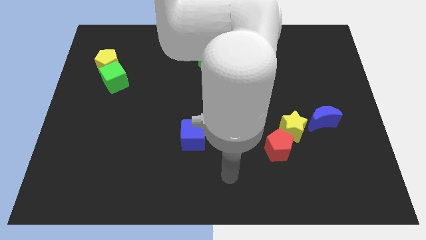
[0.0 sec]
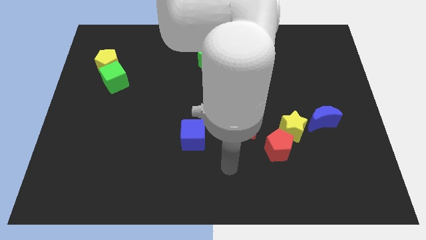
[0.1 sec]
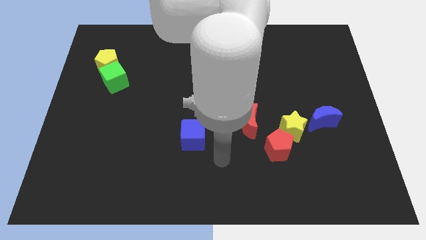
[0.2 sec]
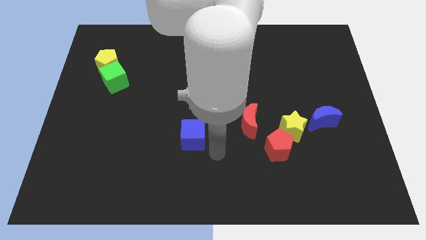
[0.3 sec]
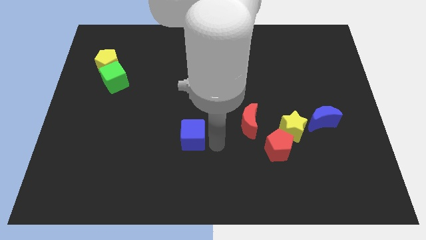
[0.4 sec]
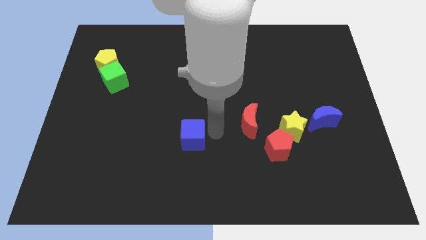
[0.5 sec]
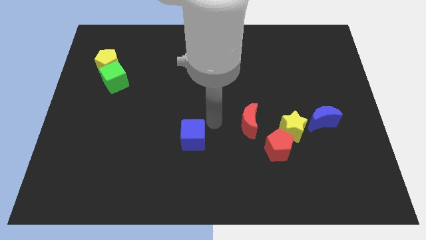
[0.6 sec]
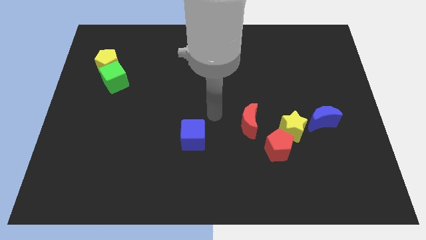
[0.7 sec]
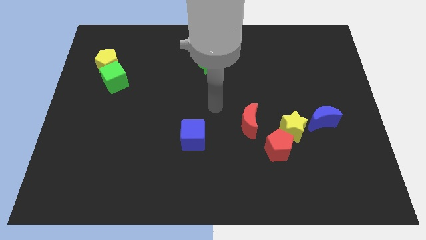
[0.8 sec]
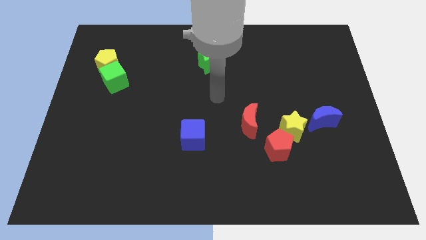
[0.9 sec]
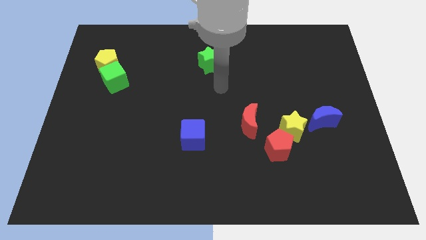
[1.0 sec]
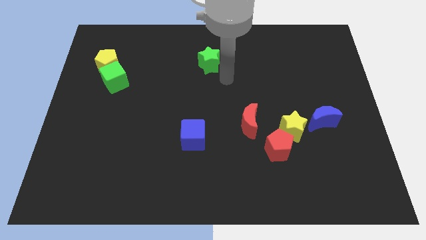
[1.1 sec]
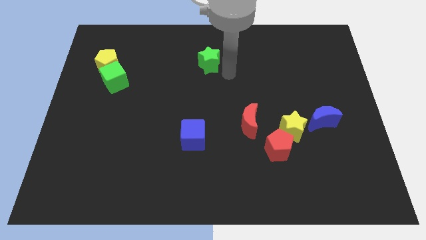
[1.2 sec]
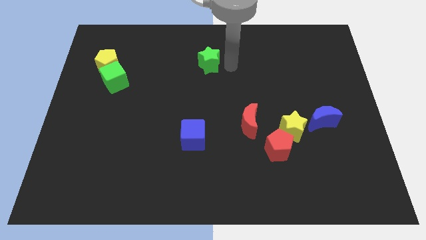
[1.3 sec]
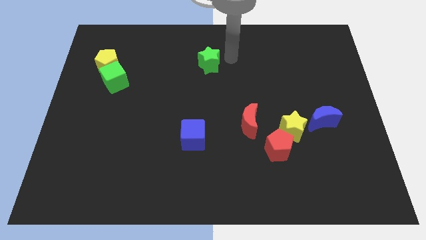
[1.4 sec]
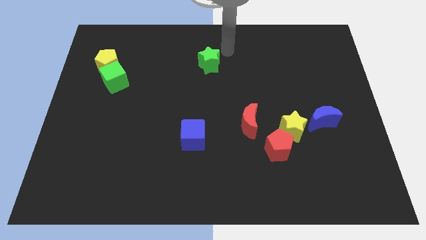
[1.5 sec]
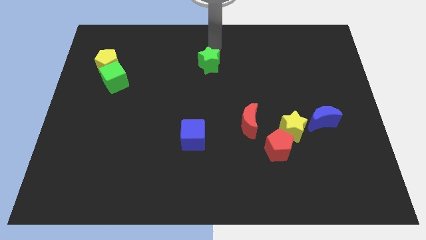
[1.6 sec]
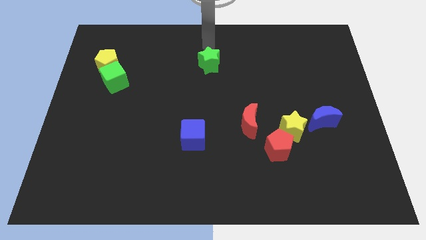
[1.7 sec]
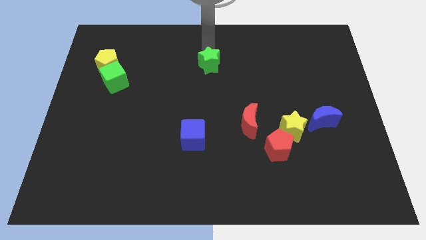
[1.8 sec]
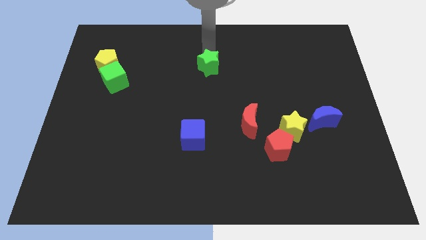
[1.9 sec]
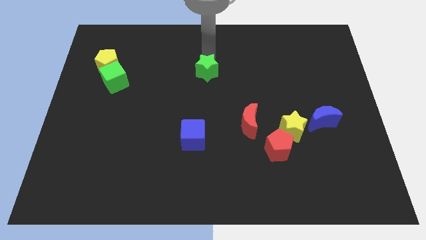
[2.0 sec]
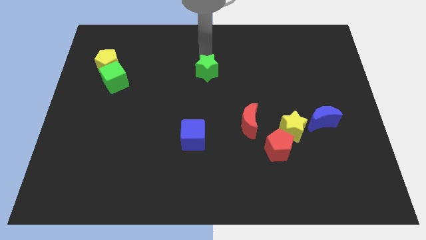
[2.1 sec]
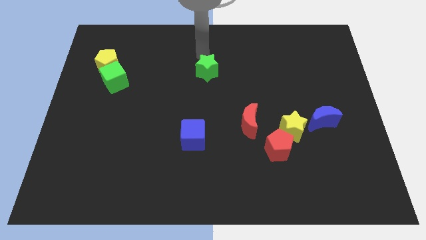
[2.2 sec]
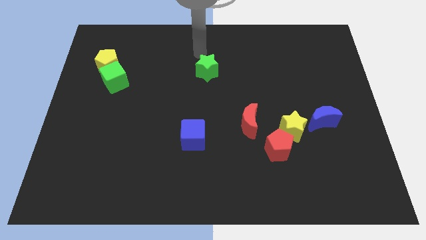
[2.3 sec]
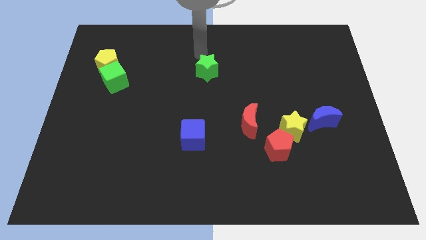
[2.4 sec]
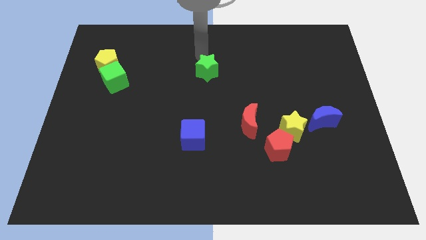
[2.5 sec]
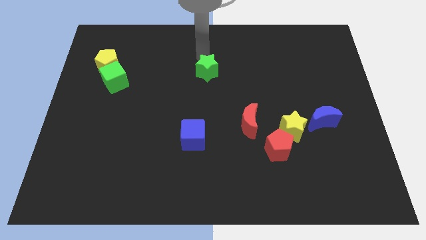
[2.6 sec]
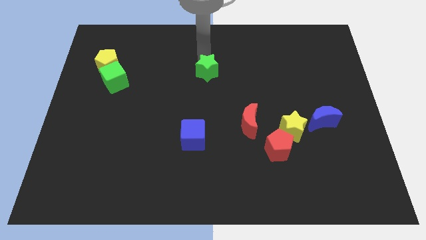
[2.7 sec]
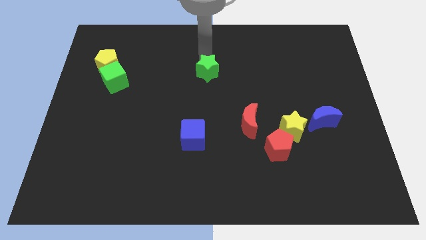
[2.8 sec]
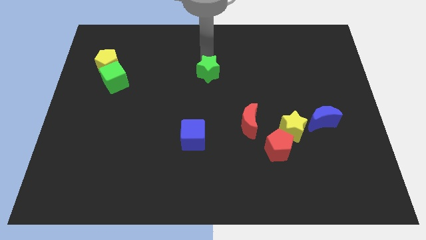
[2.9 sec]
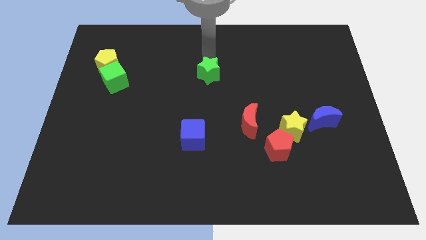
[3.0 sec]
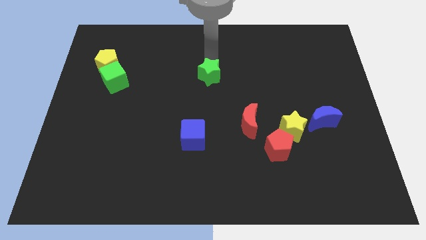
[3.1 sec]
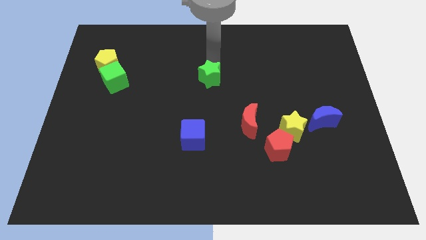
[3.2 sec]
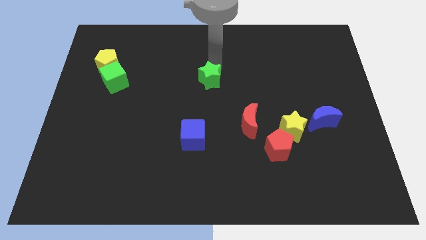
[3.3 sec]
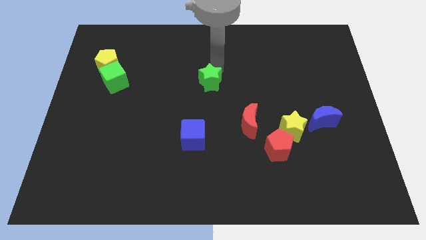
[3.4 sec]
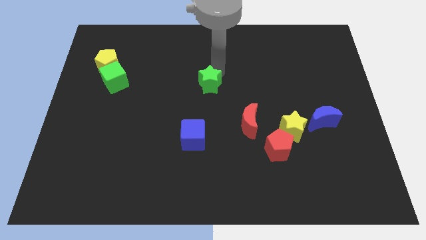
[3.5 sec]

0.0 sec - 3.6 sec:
slightly move the green star downwards

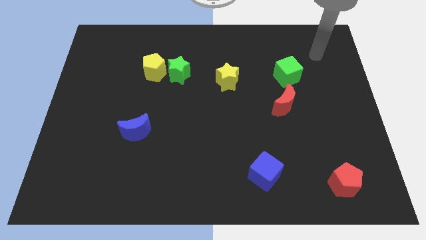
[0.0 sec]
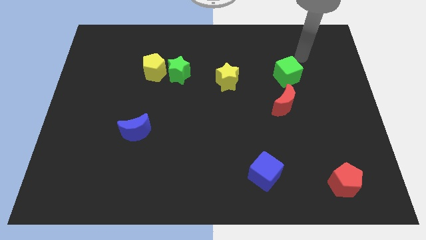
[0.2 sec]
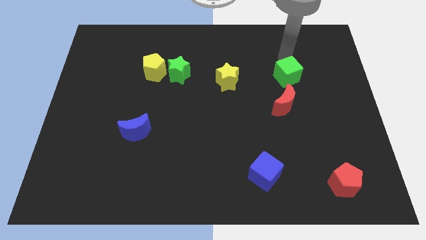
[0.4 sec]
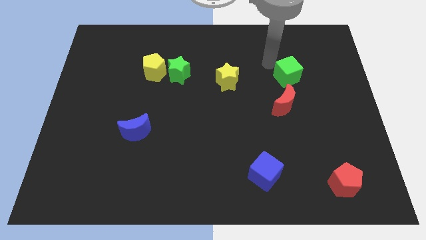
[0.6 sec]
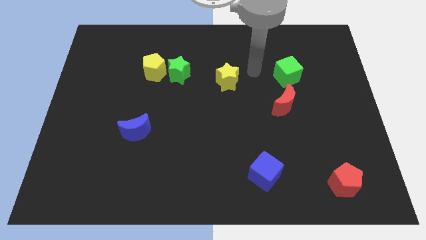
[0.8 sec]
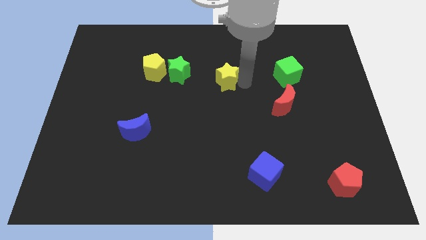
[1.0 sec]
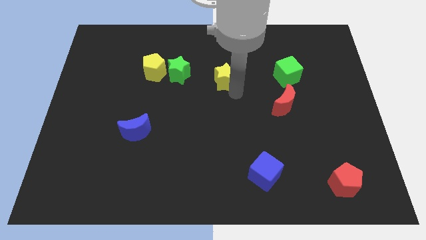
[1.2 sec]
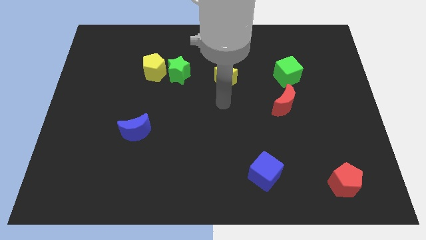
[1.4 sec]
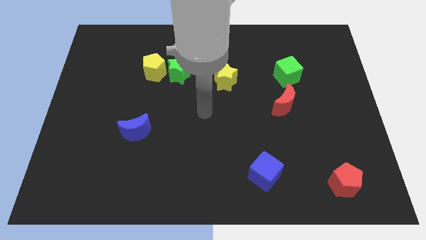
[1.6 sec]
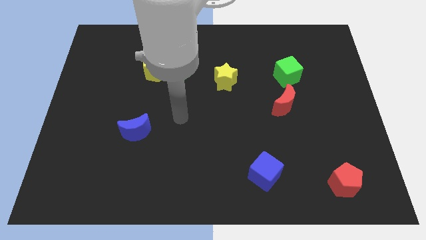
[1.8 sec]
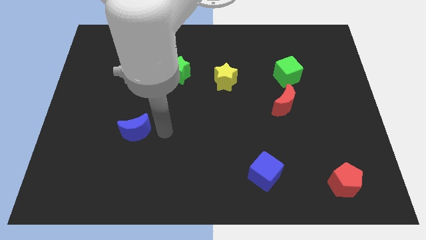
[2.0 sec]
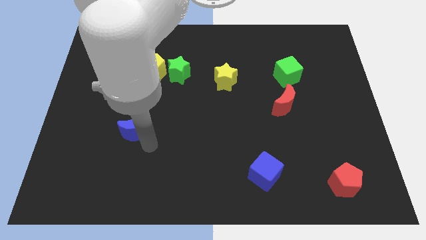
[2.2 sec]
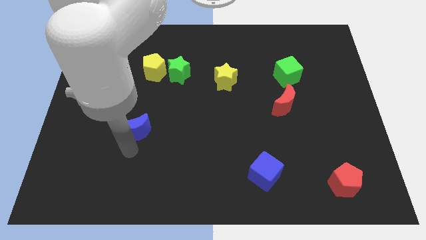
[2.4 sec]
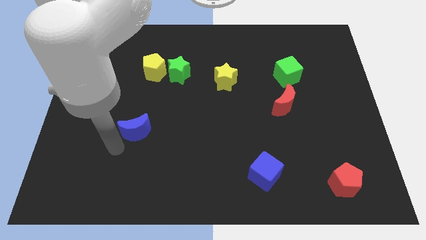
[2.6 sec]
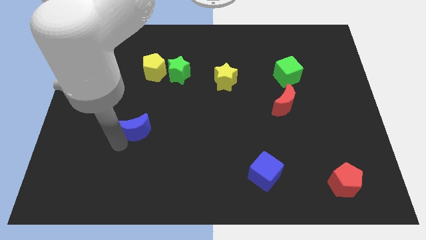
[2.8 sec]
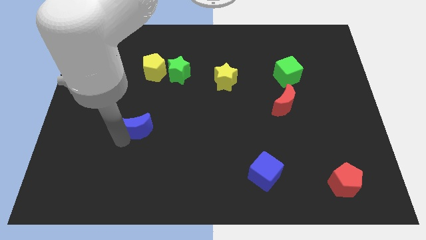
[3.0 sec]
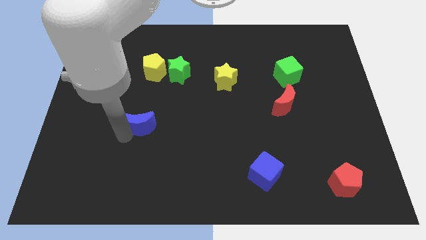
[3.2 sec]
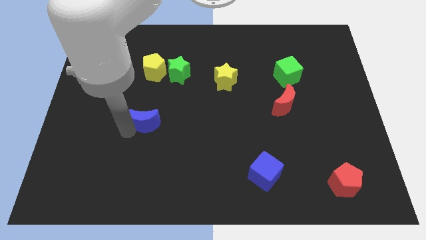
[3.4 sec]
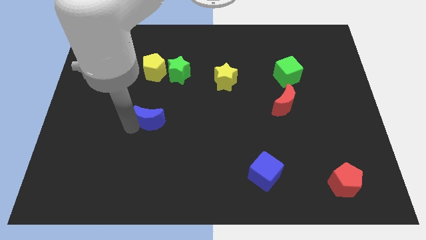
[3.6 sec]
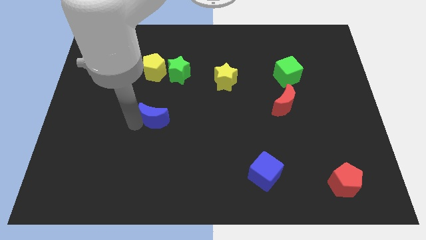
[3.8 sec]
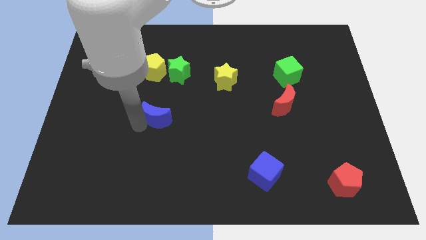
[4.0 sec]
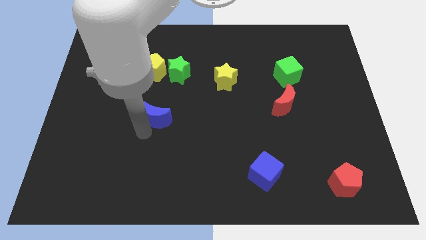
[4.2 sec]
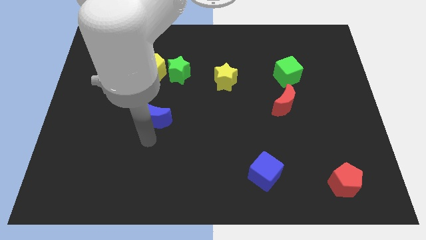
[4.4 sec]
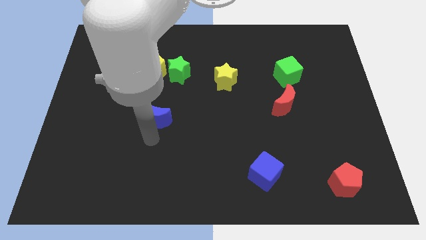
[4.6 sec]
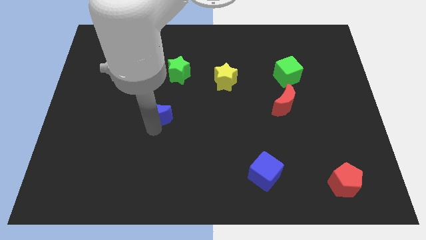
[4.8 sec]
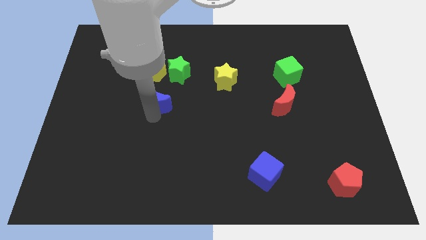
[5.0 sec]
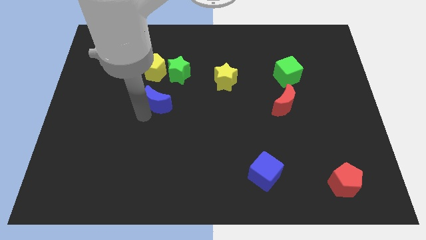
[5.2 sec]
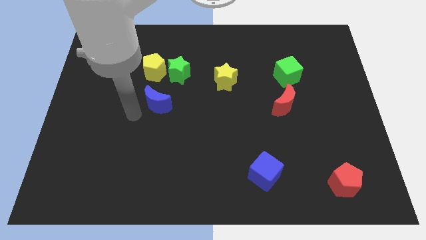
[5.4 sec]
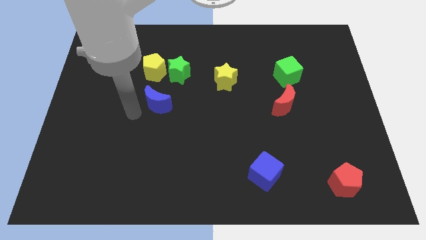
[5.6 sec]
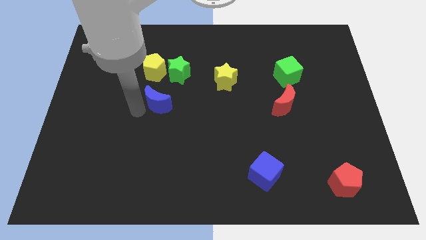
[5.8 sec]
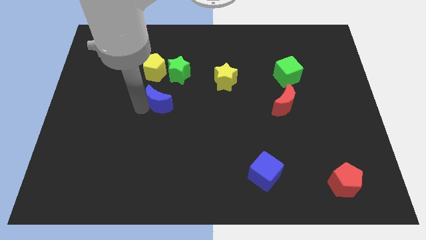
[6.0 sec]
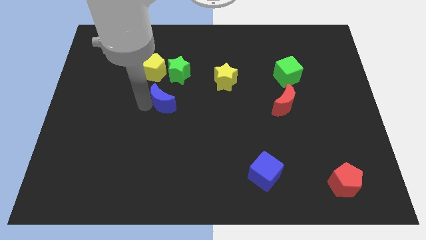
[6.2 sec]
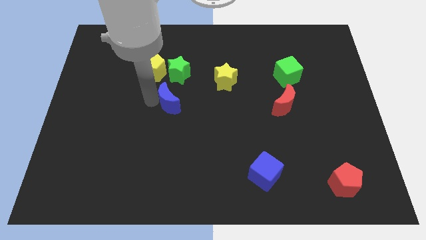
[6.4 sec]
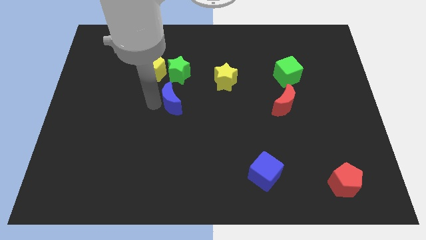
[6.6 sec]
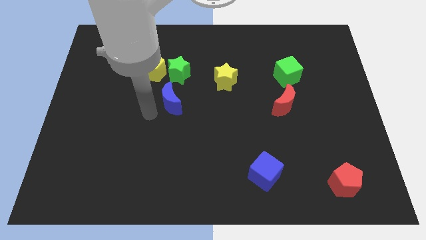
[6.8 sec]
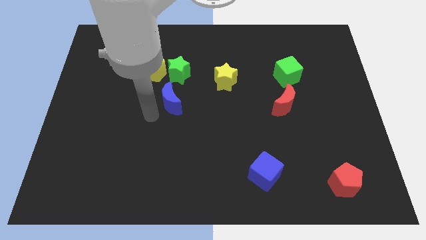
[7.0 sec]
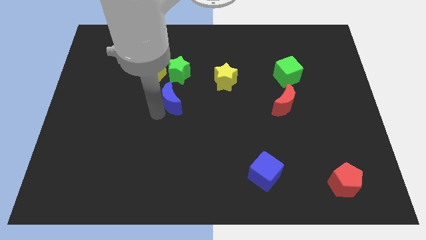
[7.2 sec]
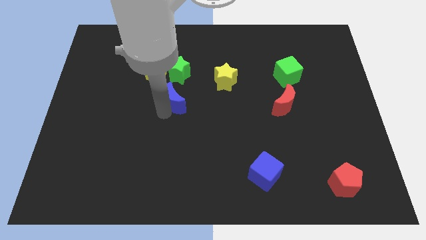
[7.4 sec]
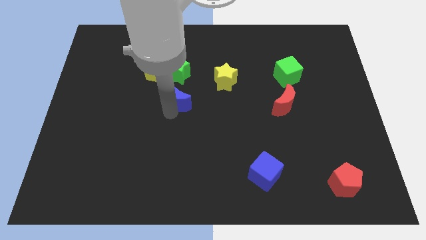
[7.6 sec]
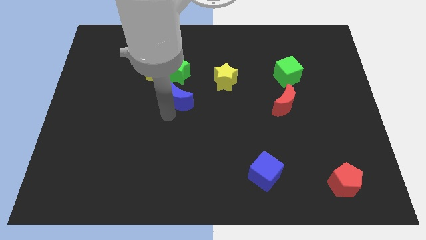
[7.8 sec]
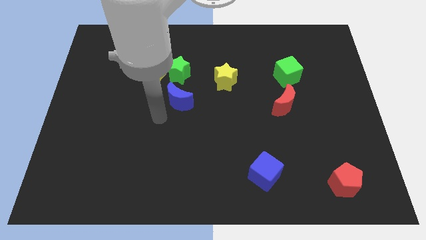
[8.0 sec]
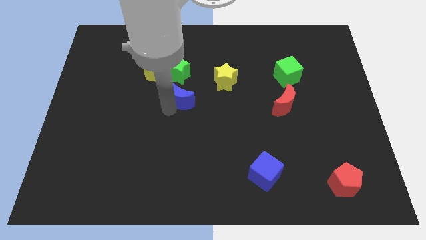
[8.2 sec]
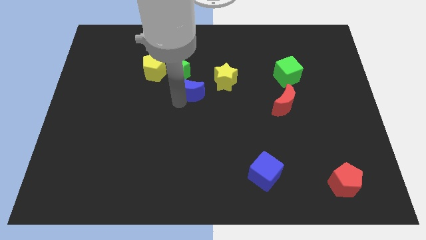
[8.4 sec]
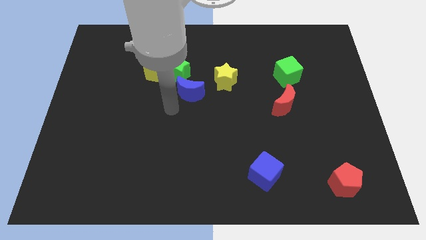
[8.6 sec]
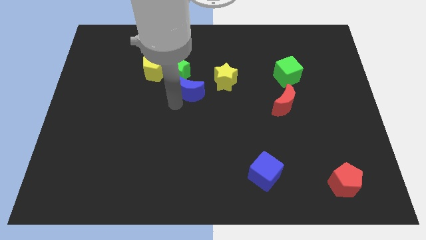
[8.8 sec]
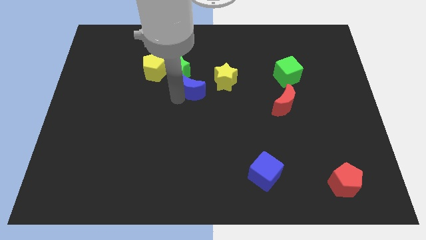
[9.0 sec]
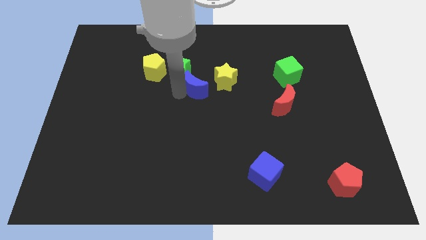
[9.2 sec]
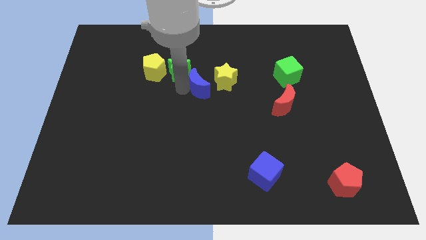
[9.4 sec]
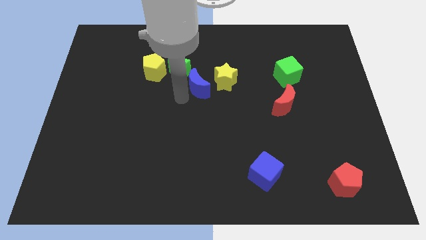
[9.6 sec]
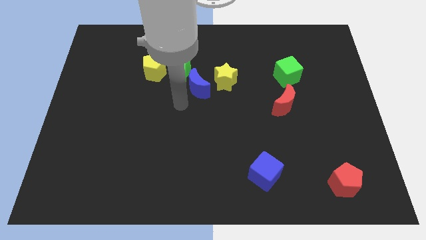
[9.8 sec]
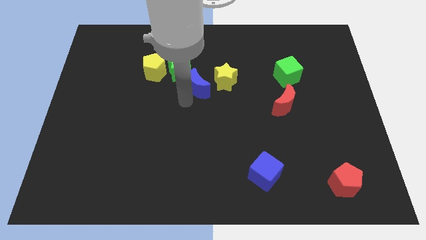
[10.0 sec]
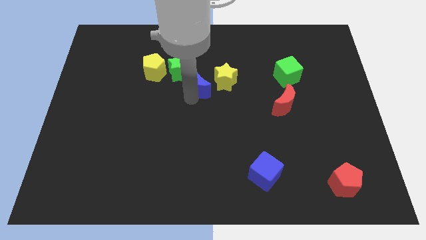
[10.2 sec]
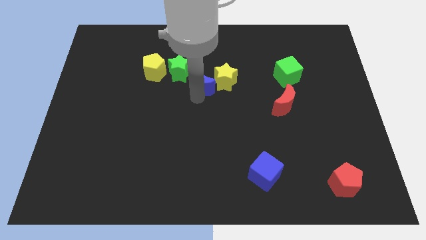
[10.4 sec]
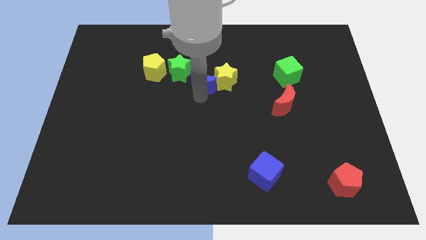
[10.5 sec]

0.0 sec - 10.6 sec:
push the blue moon upwards and right diagonally
